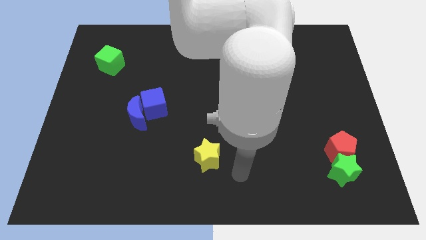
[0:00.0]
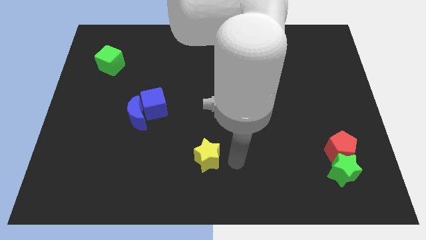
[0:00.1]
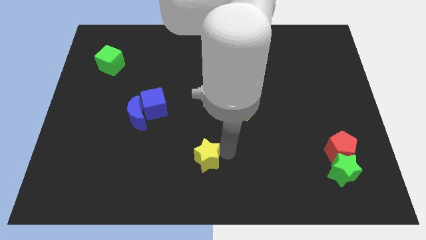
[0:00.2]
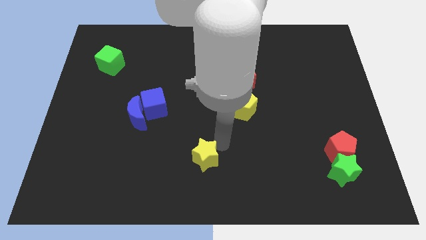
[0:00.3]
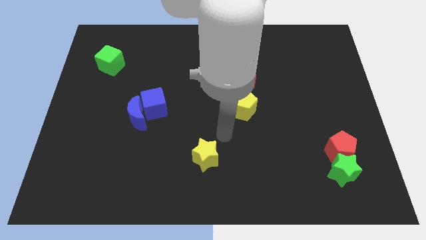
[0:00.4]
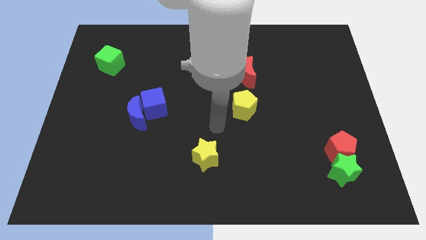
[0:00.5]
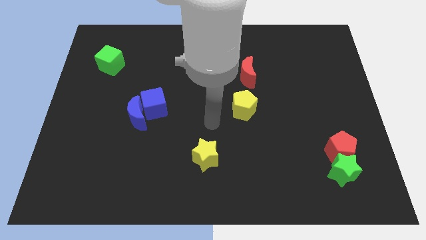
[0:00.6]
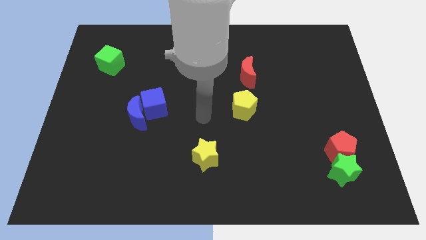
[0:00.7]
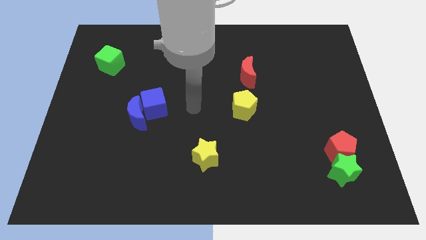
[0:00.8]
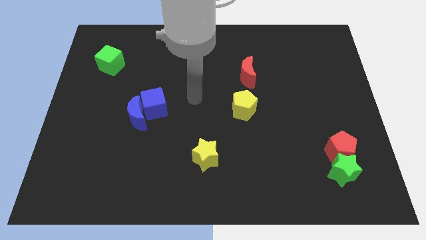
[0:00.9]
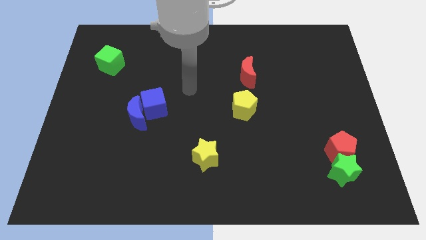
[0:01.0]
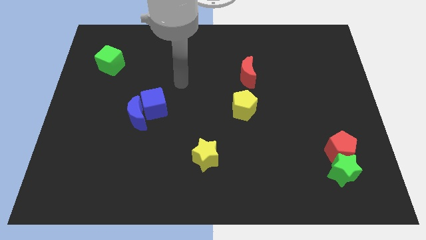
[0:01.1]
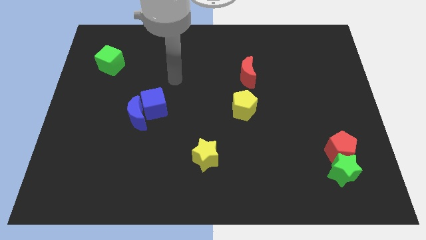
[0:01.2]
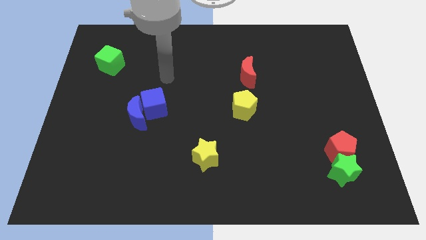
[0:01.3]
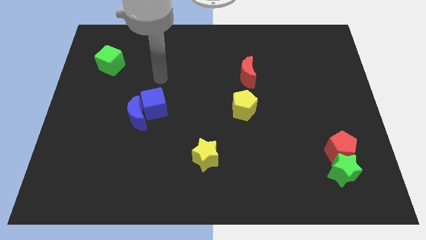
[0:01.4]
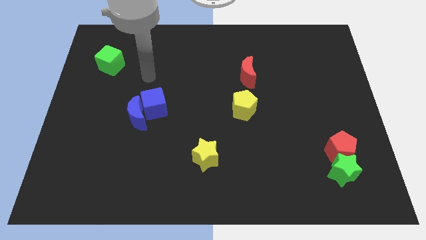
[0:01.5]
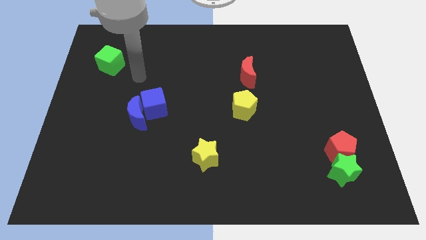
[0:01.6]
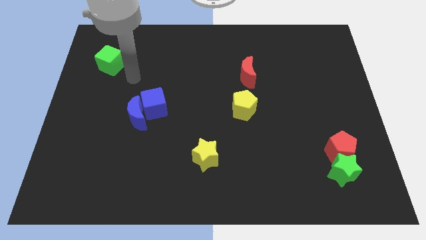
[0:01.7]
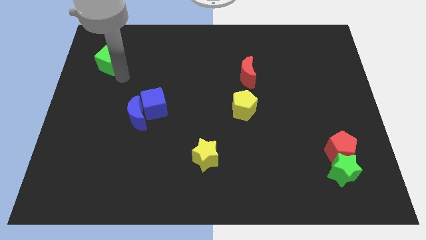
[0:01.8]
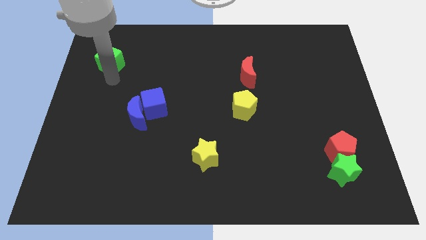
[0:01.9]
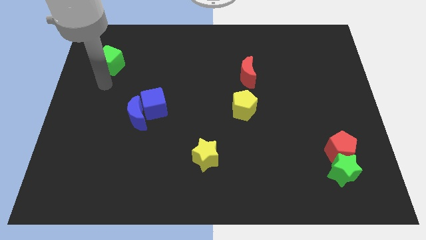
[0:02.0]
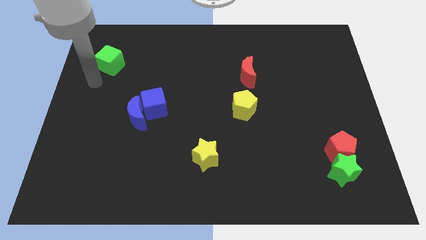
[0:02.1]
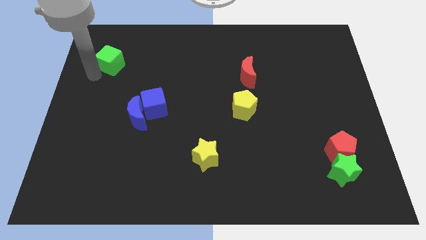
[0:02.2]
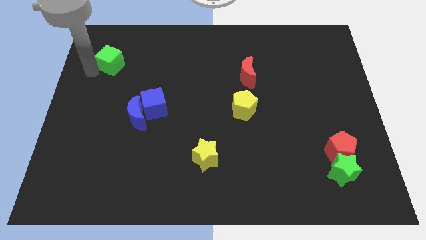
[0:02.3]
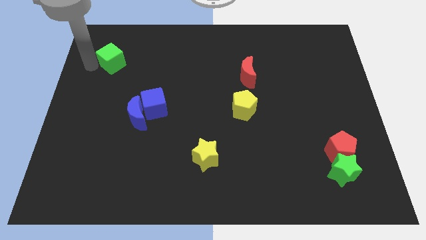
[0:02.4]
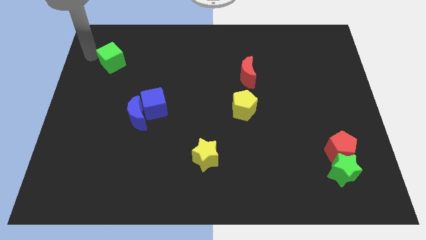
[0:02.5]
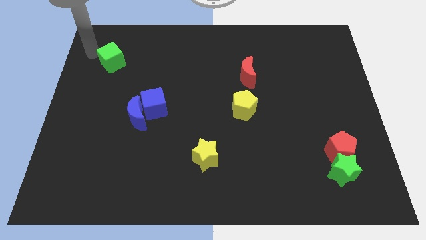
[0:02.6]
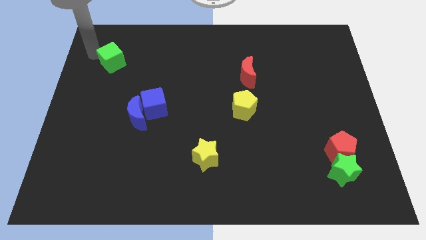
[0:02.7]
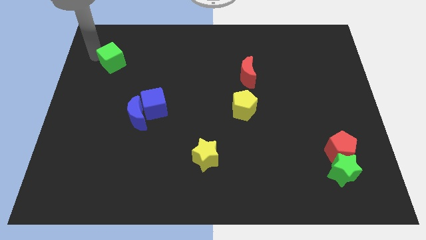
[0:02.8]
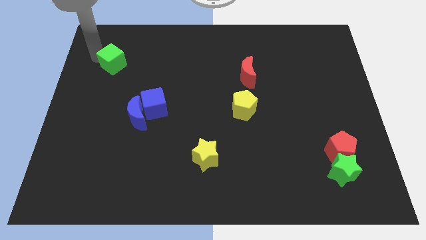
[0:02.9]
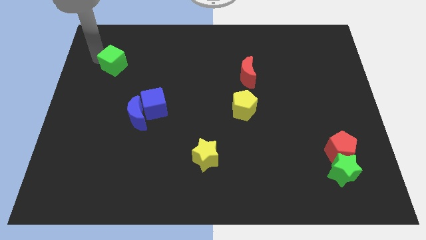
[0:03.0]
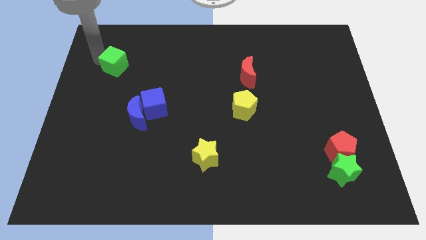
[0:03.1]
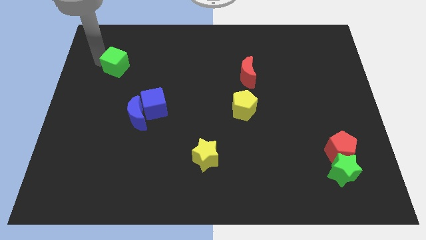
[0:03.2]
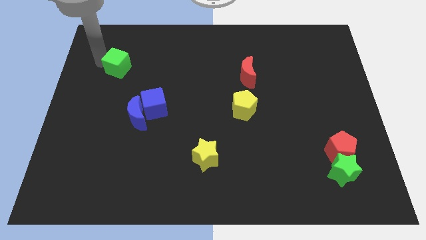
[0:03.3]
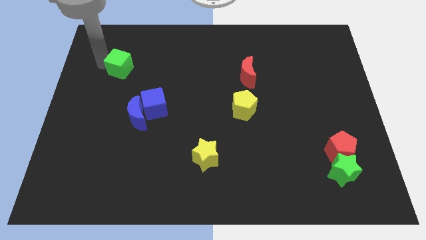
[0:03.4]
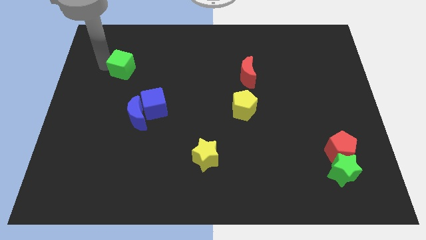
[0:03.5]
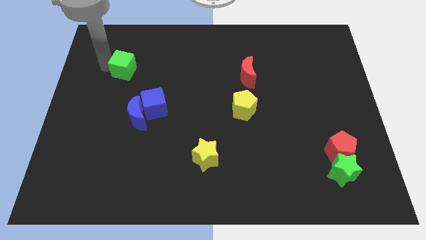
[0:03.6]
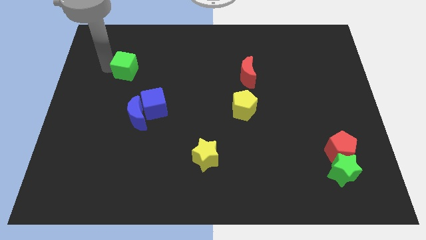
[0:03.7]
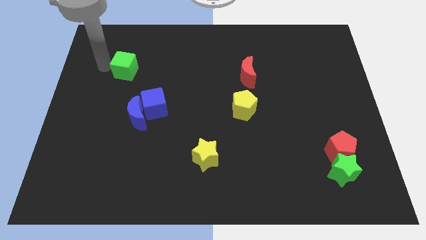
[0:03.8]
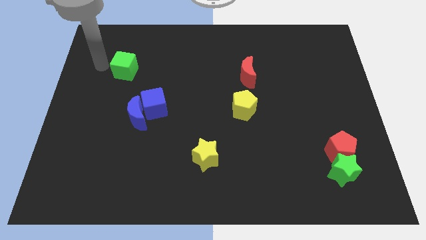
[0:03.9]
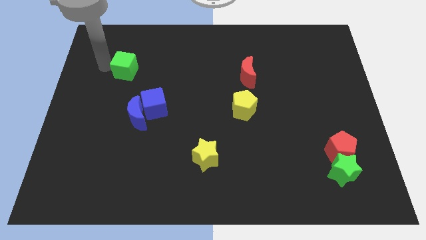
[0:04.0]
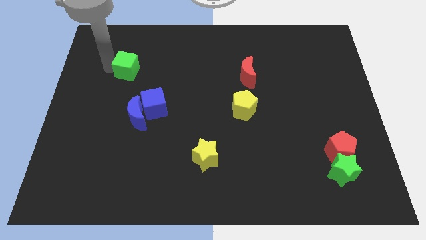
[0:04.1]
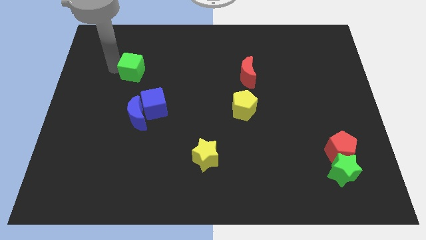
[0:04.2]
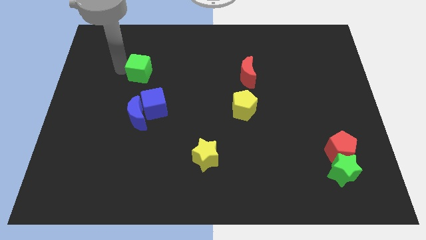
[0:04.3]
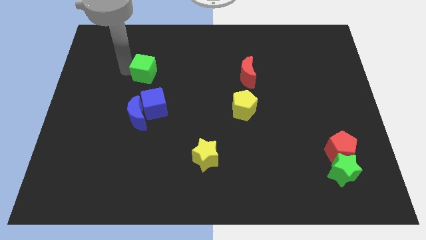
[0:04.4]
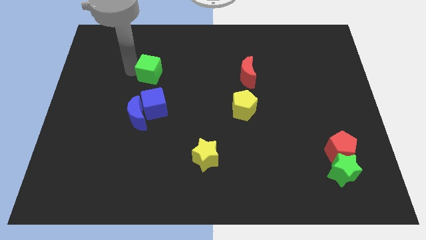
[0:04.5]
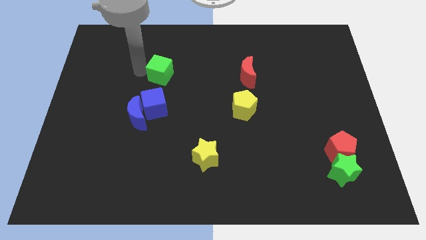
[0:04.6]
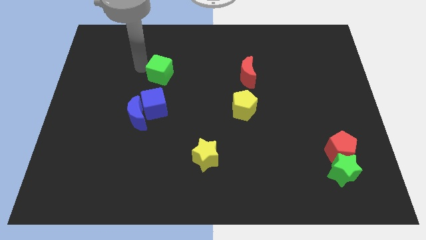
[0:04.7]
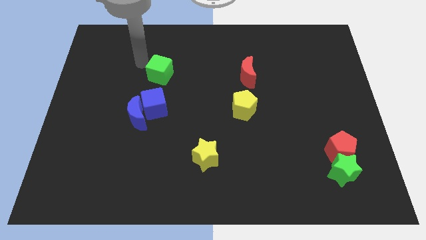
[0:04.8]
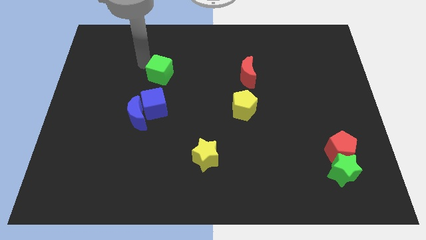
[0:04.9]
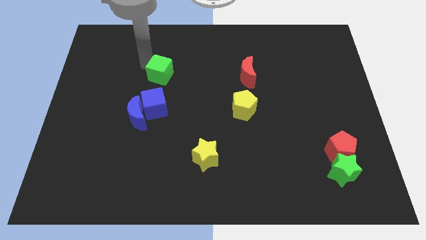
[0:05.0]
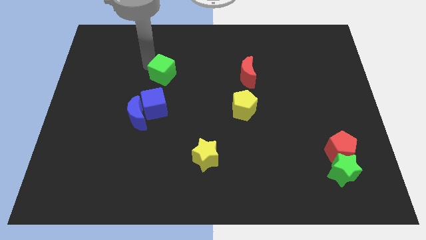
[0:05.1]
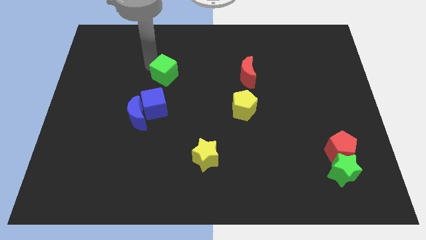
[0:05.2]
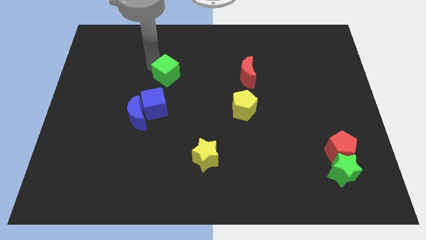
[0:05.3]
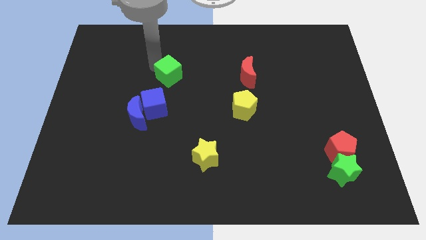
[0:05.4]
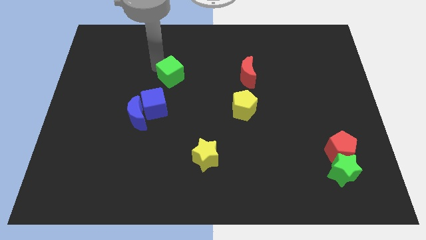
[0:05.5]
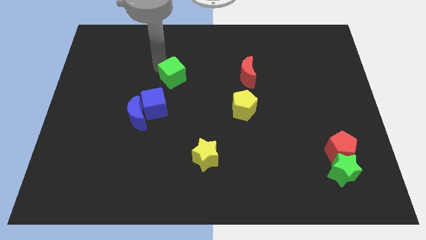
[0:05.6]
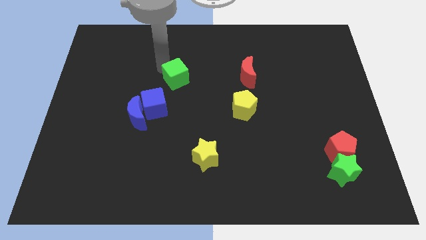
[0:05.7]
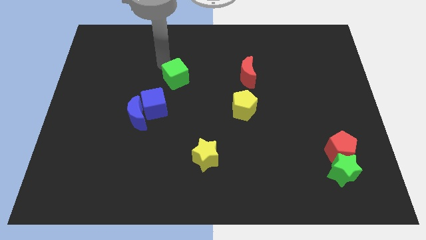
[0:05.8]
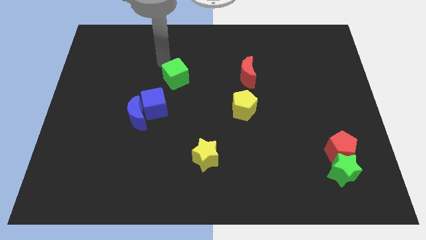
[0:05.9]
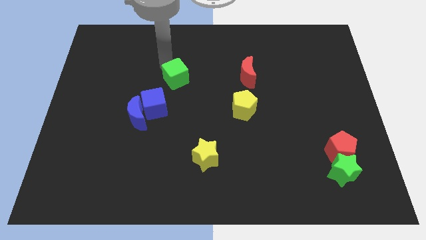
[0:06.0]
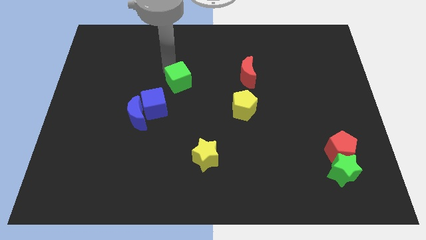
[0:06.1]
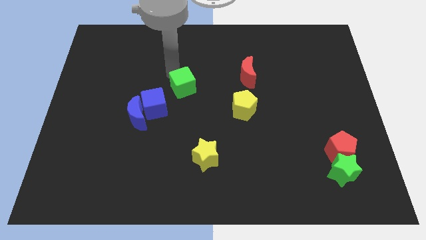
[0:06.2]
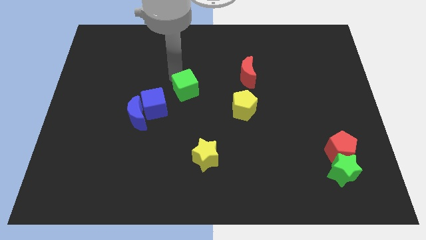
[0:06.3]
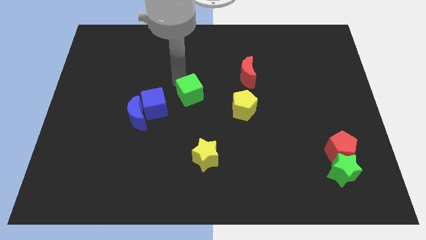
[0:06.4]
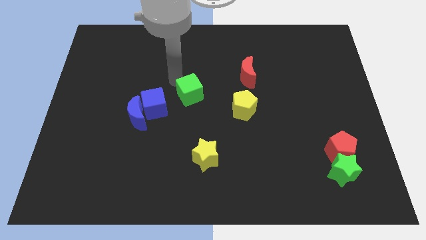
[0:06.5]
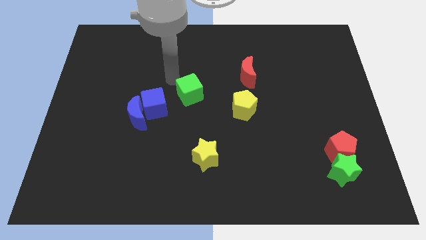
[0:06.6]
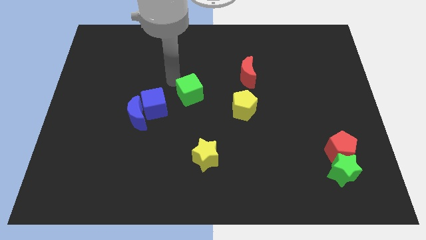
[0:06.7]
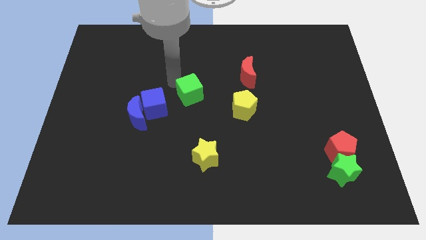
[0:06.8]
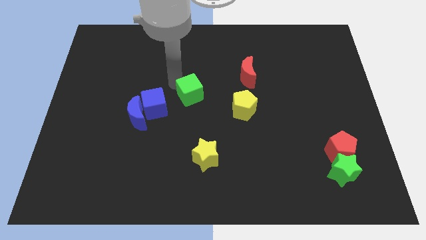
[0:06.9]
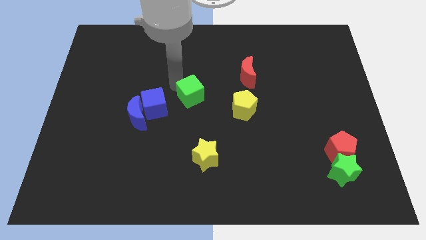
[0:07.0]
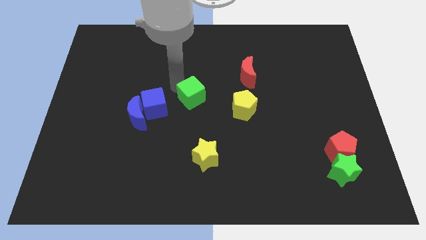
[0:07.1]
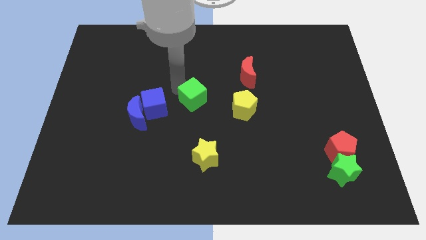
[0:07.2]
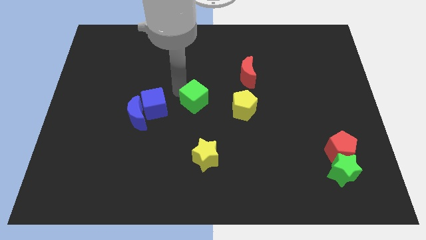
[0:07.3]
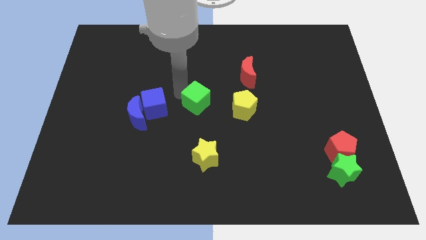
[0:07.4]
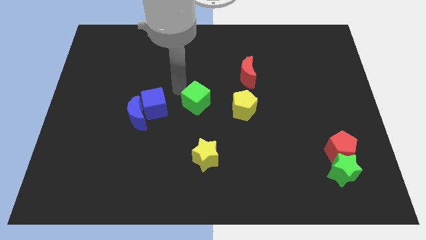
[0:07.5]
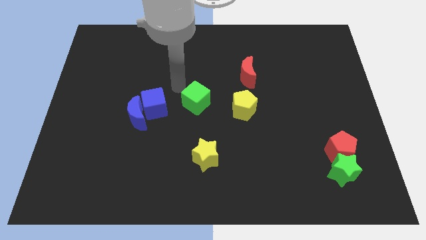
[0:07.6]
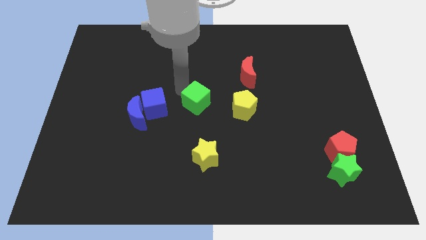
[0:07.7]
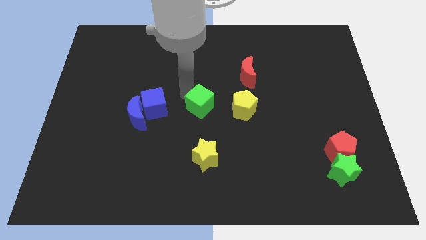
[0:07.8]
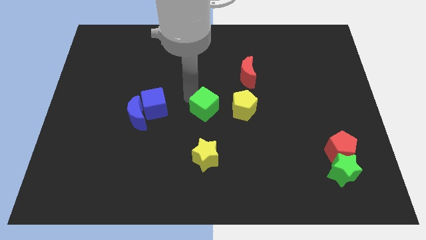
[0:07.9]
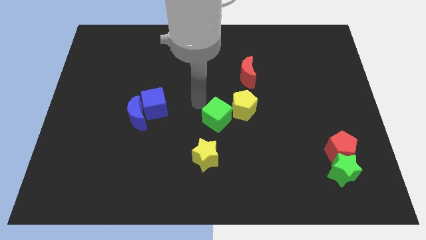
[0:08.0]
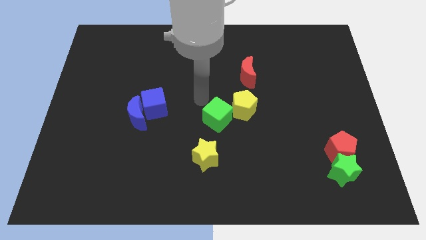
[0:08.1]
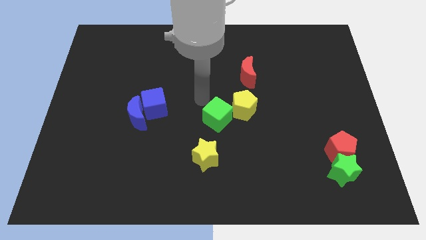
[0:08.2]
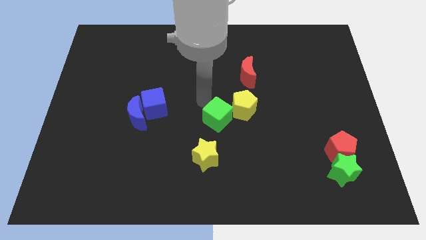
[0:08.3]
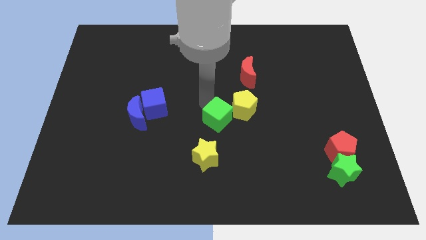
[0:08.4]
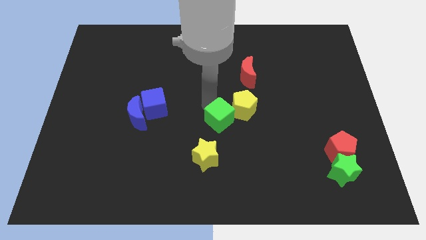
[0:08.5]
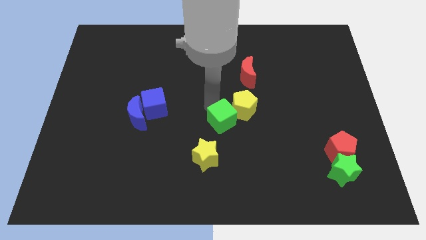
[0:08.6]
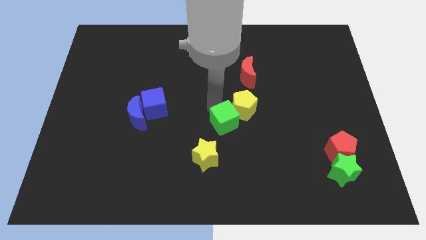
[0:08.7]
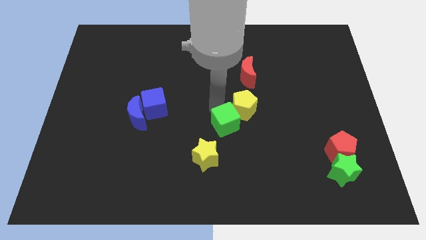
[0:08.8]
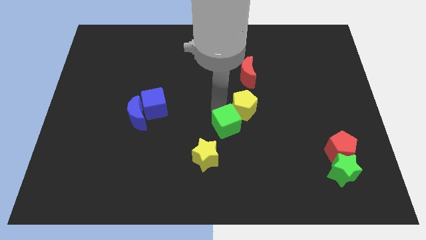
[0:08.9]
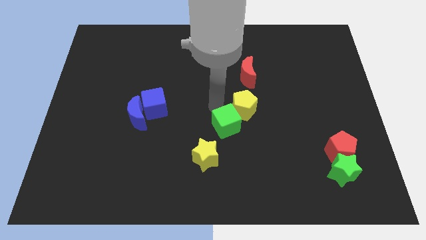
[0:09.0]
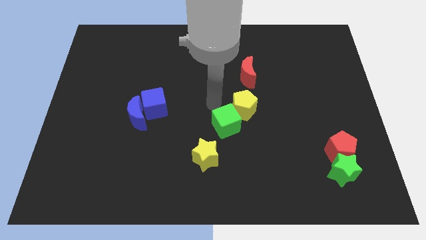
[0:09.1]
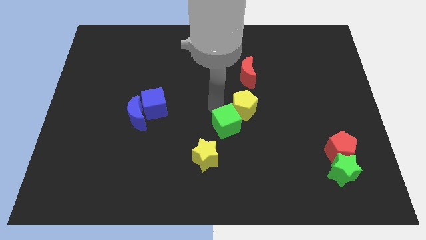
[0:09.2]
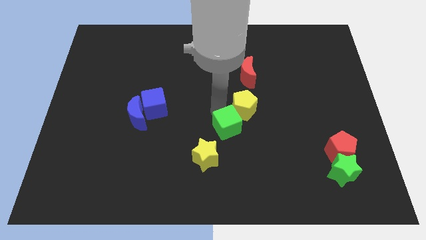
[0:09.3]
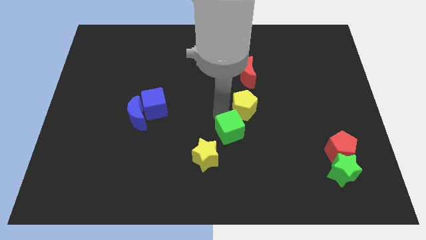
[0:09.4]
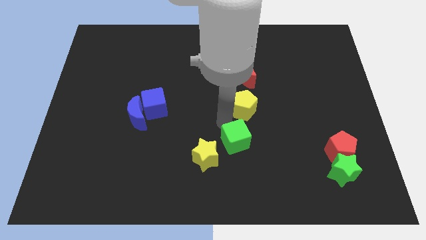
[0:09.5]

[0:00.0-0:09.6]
move the green cube to the right side of the yellow star
